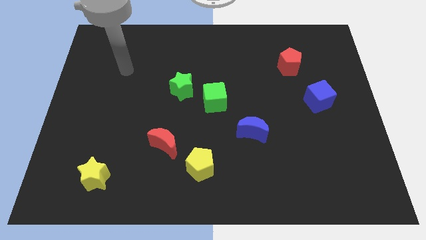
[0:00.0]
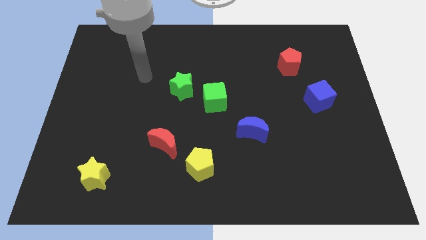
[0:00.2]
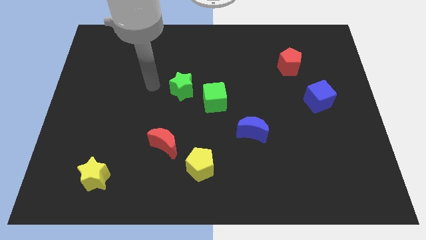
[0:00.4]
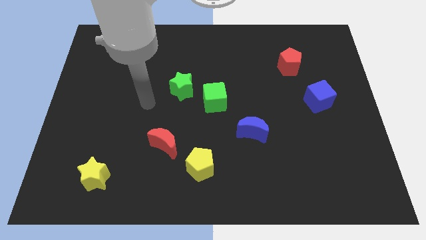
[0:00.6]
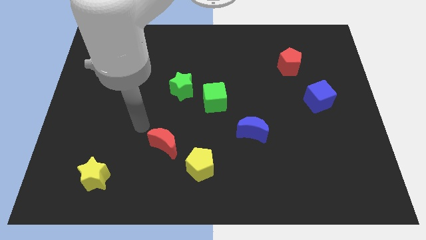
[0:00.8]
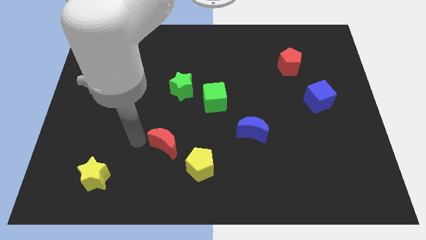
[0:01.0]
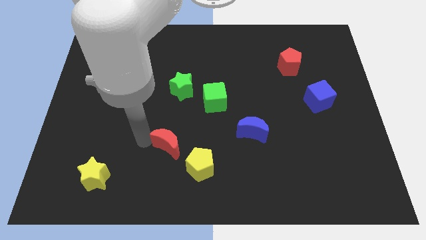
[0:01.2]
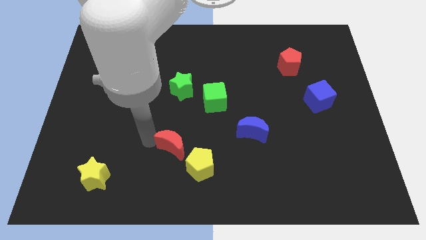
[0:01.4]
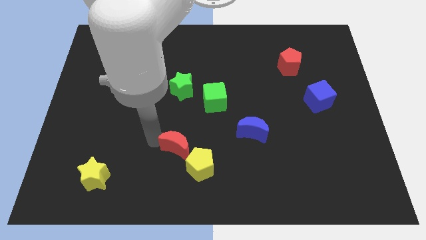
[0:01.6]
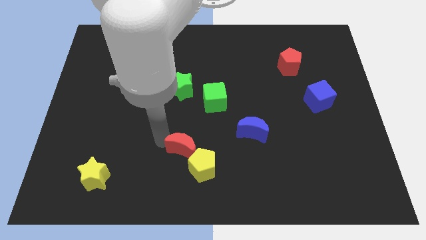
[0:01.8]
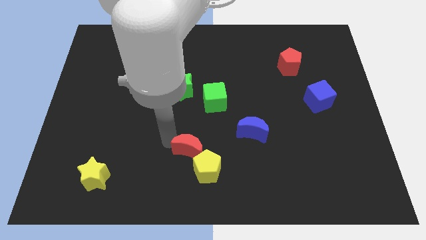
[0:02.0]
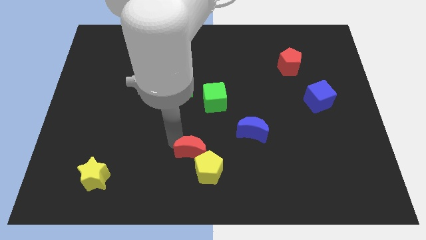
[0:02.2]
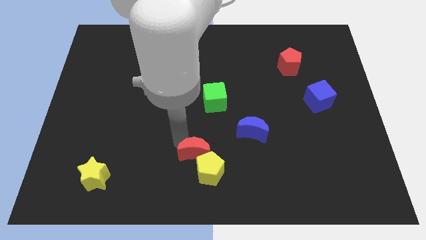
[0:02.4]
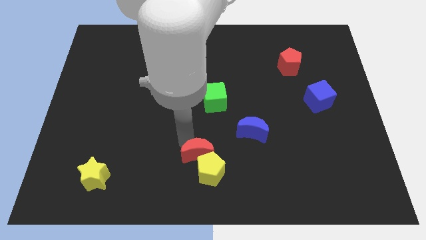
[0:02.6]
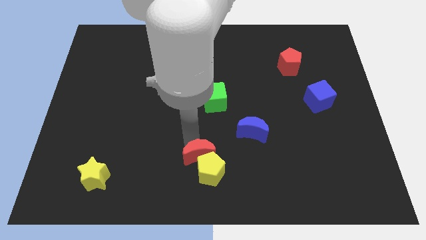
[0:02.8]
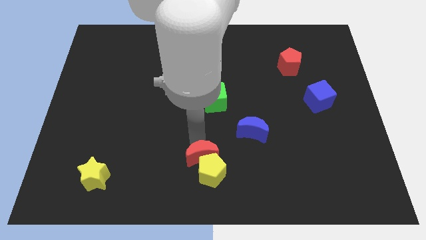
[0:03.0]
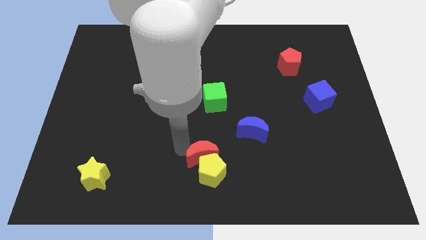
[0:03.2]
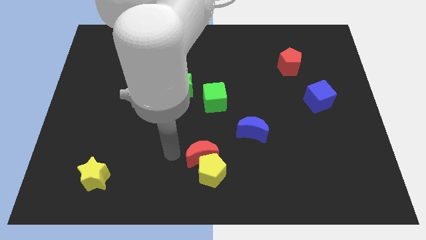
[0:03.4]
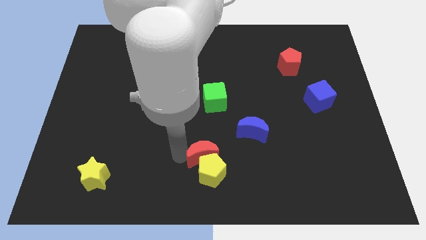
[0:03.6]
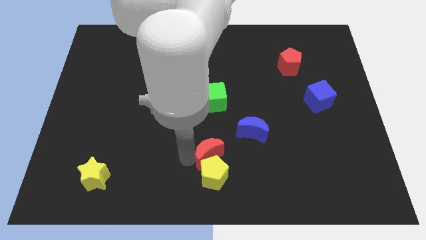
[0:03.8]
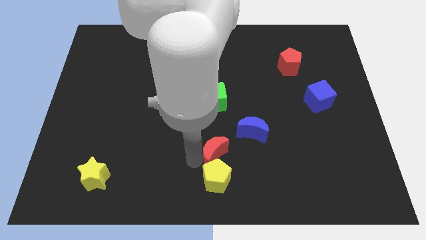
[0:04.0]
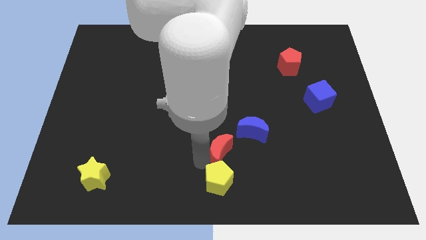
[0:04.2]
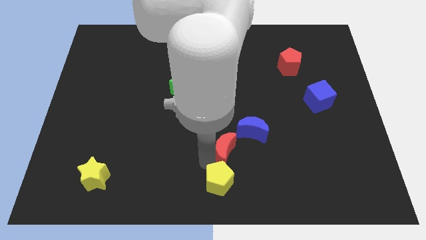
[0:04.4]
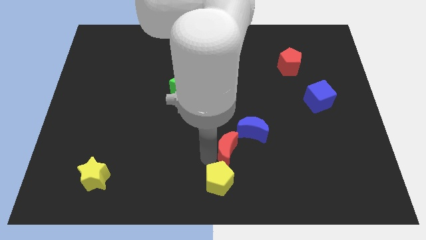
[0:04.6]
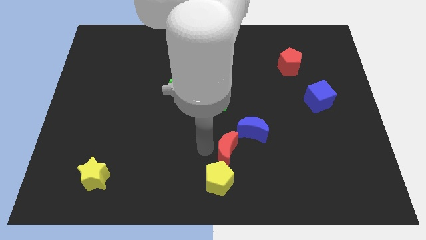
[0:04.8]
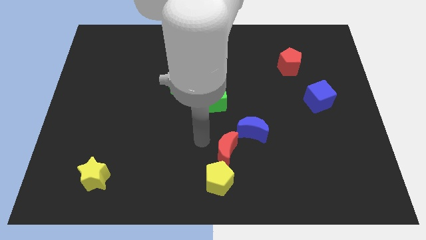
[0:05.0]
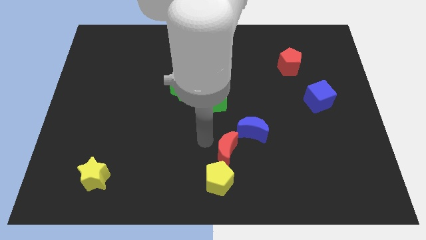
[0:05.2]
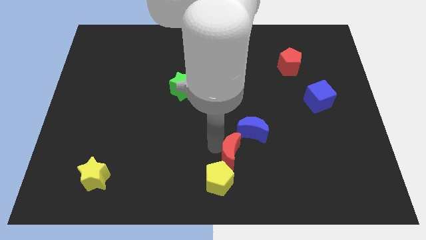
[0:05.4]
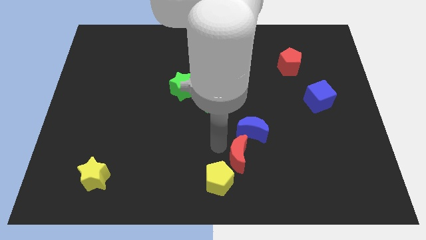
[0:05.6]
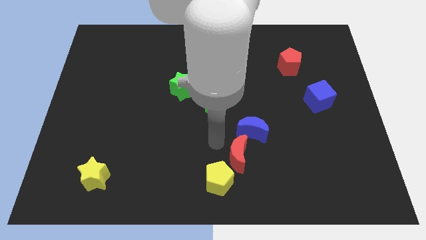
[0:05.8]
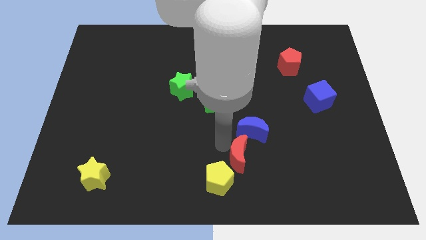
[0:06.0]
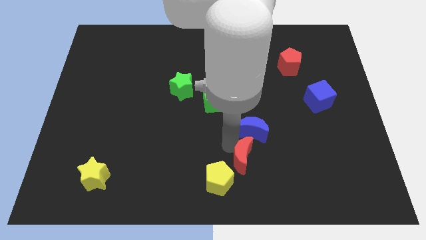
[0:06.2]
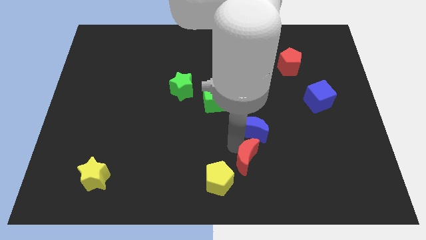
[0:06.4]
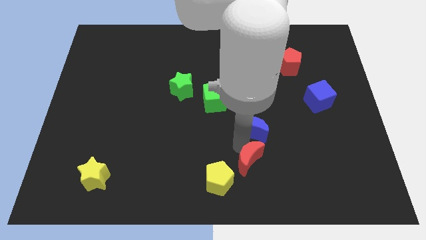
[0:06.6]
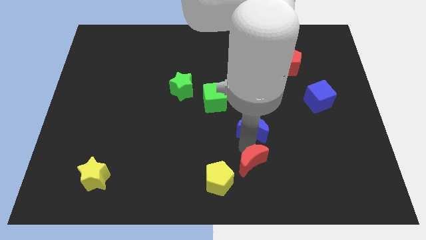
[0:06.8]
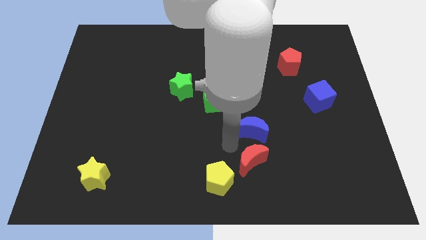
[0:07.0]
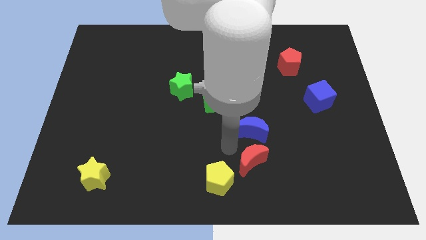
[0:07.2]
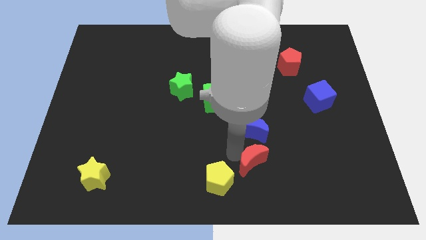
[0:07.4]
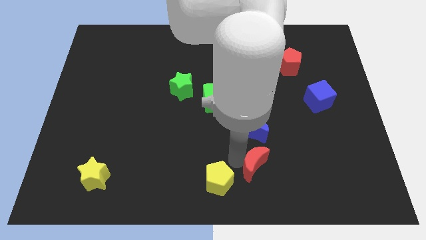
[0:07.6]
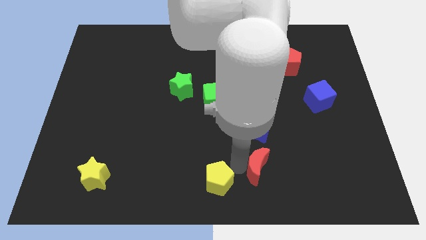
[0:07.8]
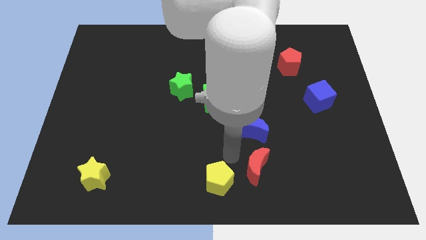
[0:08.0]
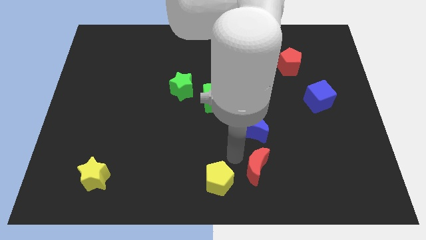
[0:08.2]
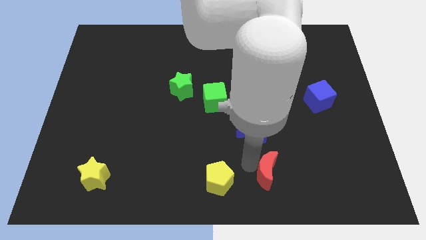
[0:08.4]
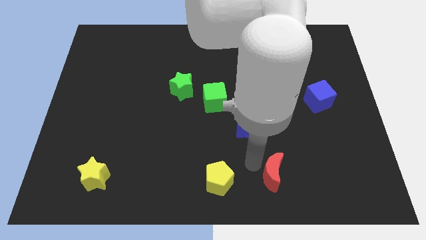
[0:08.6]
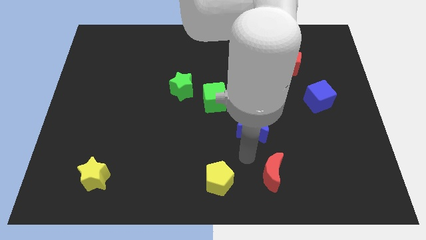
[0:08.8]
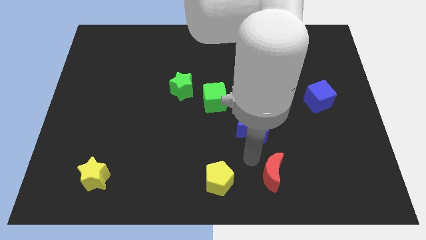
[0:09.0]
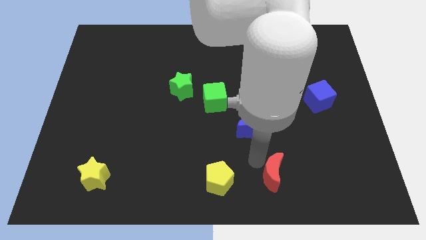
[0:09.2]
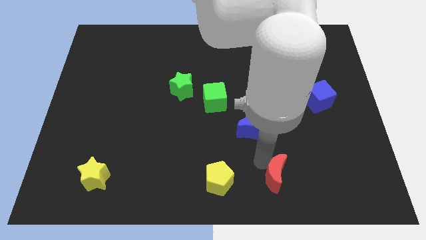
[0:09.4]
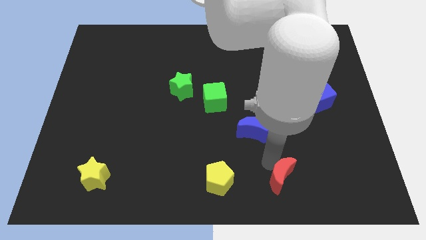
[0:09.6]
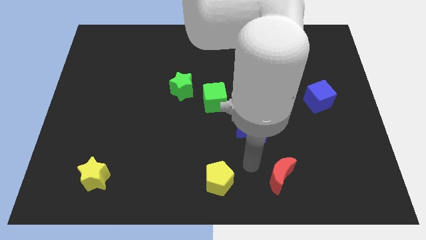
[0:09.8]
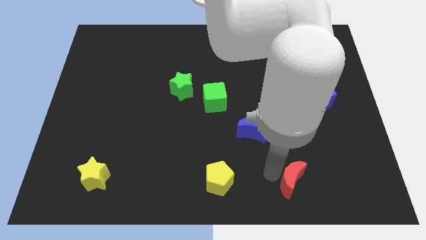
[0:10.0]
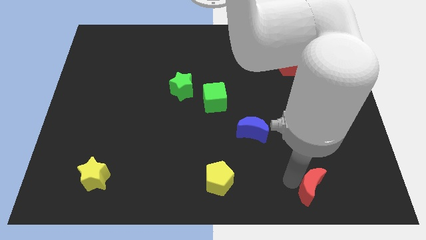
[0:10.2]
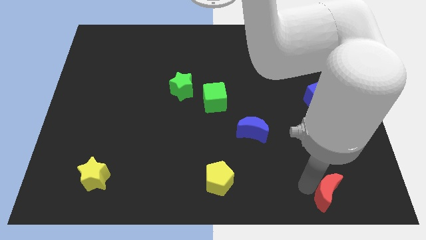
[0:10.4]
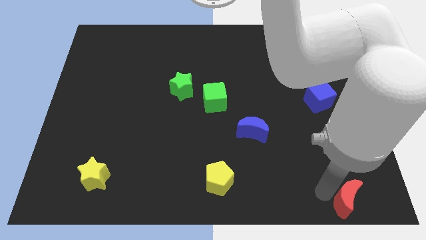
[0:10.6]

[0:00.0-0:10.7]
put the red moon to the lower right corner

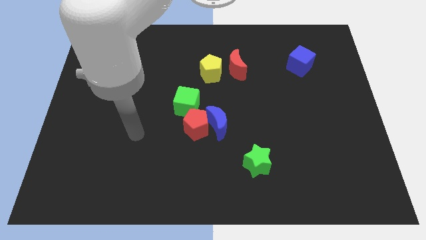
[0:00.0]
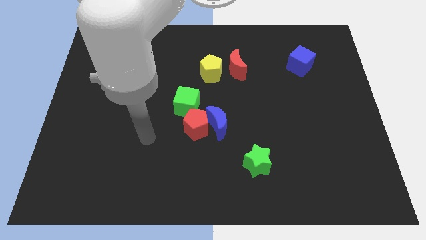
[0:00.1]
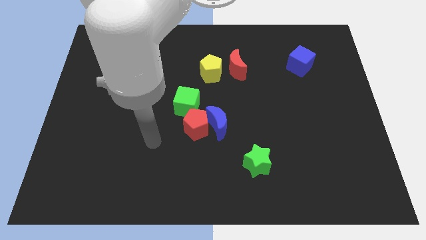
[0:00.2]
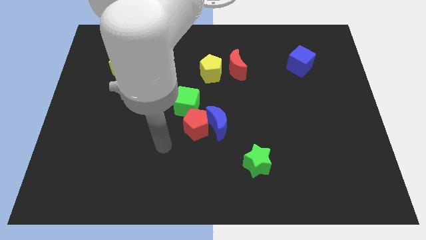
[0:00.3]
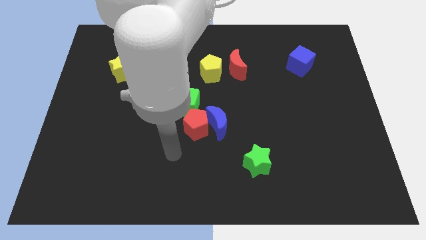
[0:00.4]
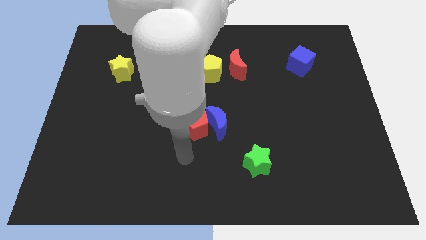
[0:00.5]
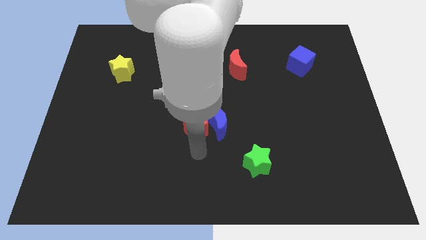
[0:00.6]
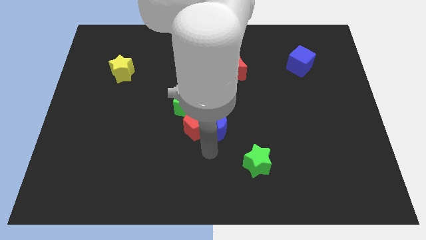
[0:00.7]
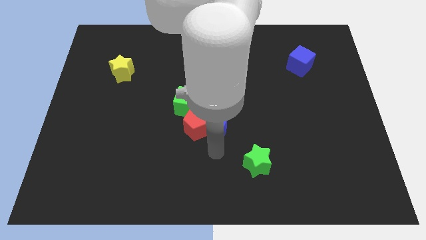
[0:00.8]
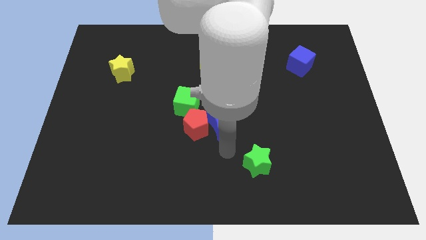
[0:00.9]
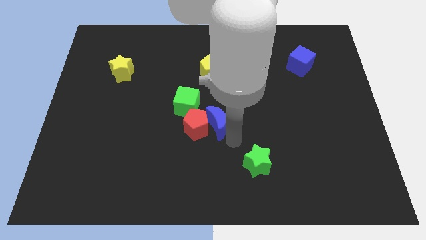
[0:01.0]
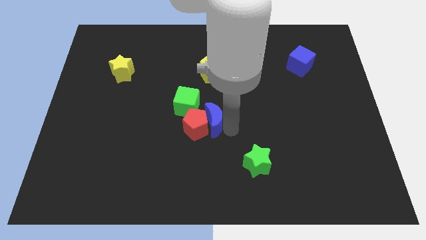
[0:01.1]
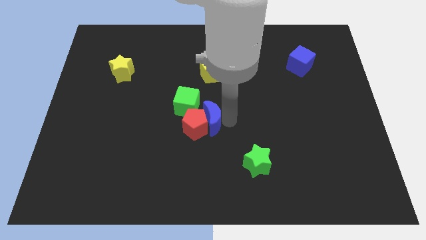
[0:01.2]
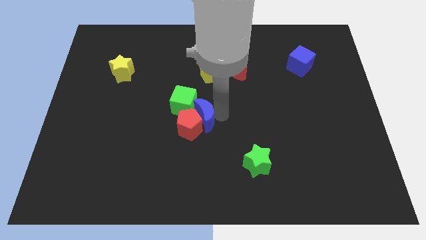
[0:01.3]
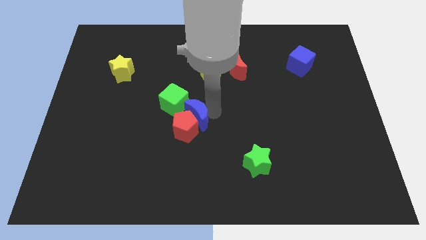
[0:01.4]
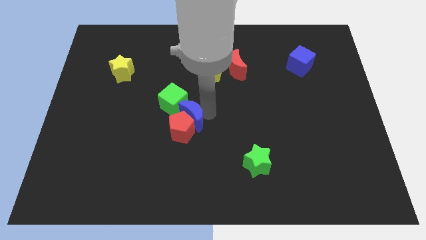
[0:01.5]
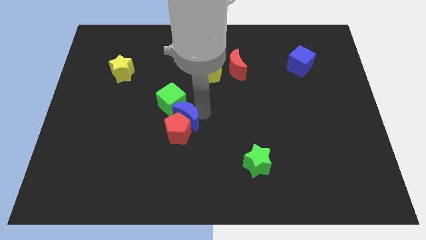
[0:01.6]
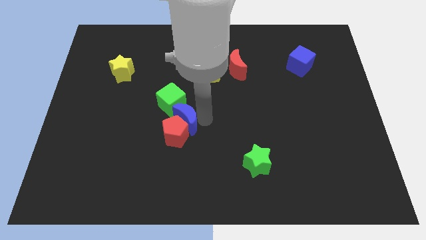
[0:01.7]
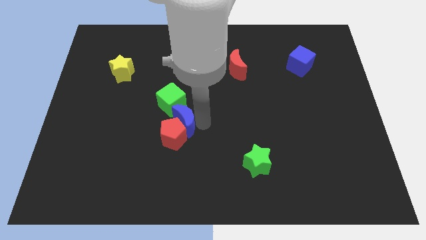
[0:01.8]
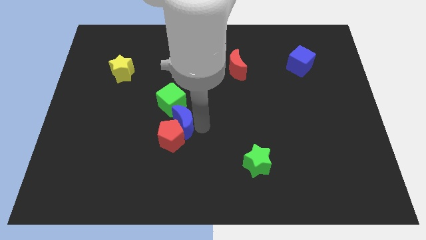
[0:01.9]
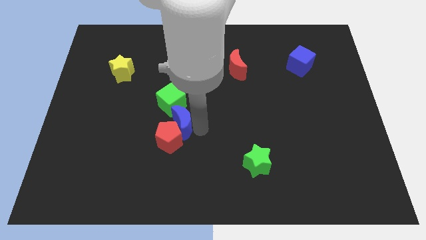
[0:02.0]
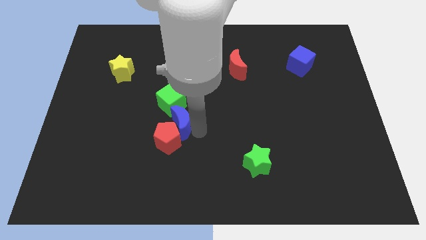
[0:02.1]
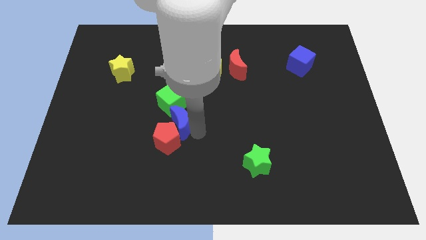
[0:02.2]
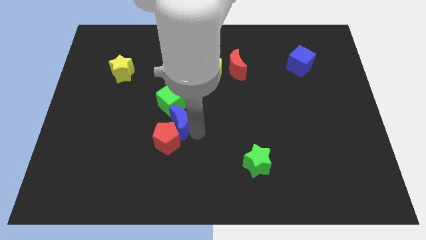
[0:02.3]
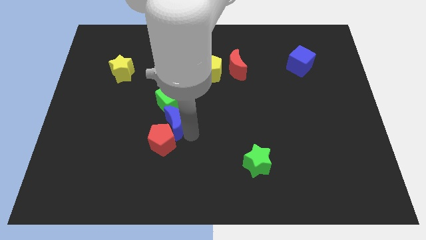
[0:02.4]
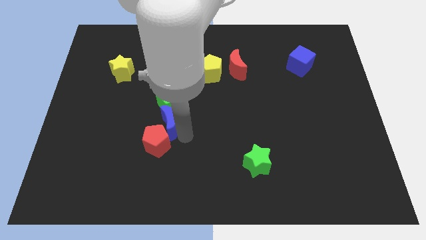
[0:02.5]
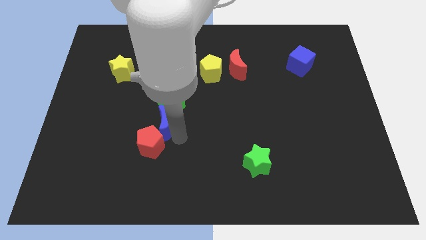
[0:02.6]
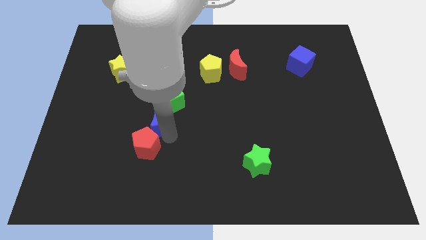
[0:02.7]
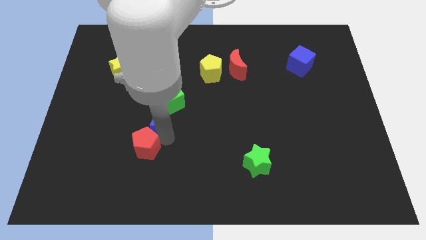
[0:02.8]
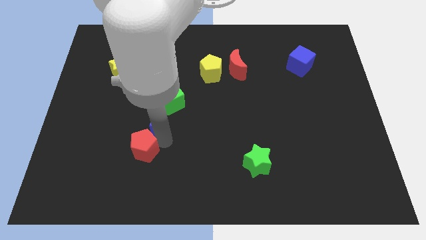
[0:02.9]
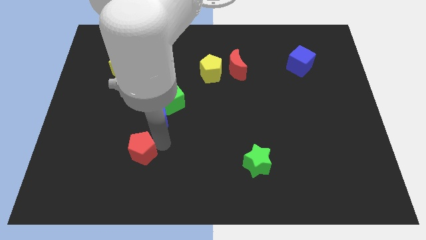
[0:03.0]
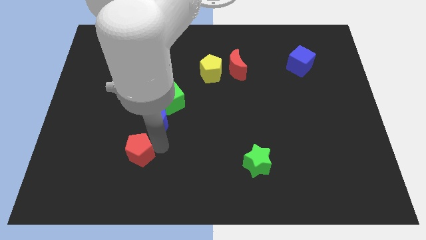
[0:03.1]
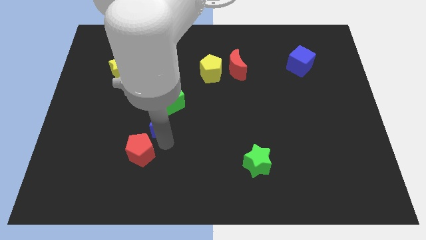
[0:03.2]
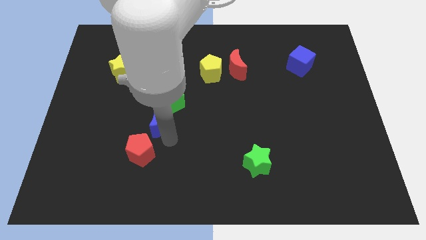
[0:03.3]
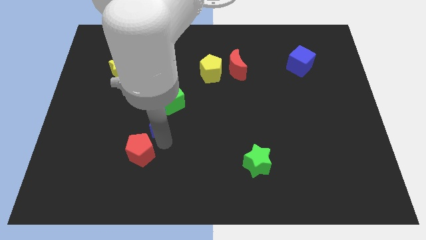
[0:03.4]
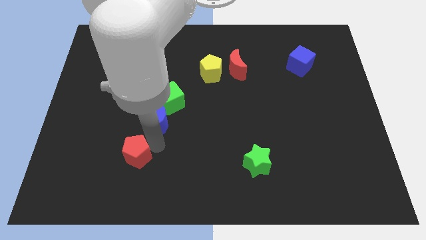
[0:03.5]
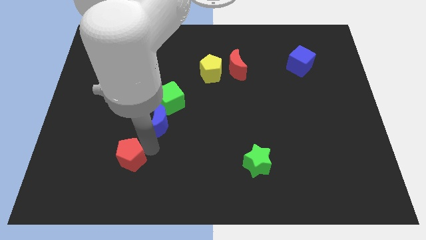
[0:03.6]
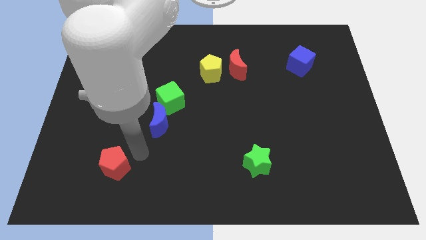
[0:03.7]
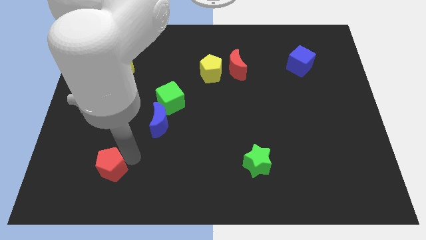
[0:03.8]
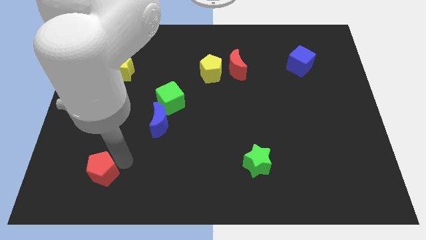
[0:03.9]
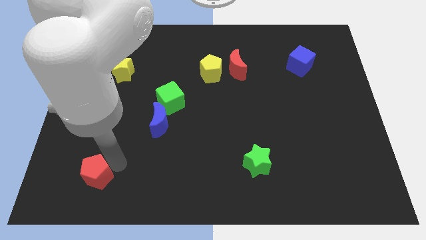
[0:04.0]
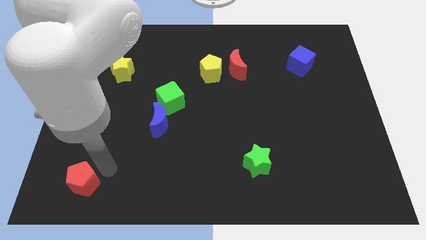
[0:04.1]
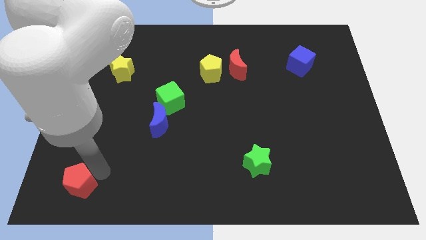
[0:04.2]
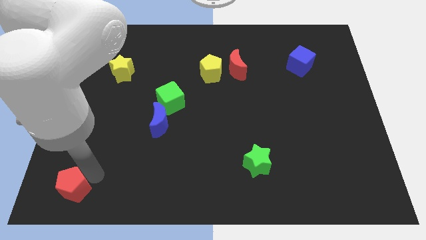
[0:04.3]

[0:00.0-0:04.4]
move the red pentagon to the bottom left of the board
